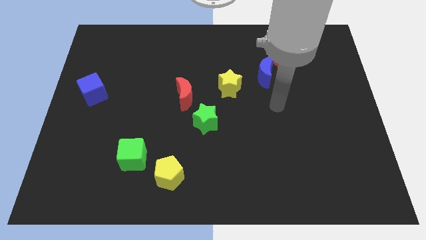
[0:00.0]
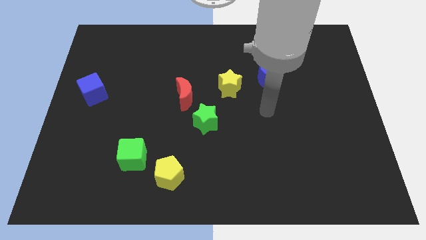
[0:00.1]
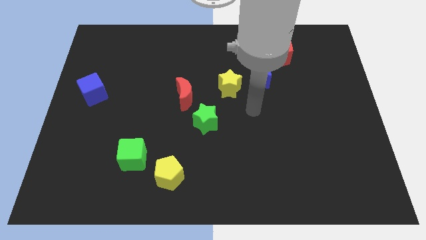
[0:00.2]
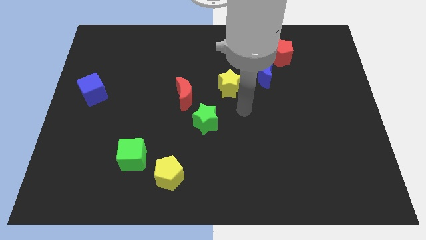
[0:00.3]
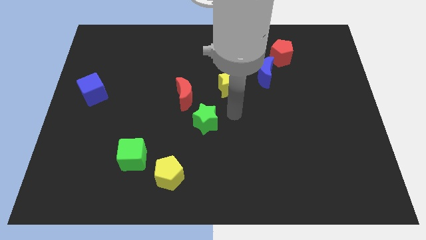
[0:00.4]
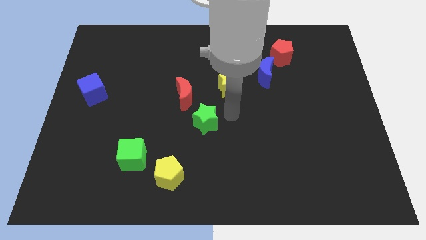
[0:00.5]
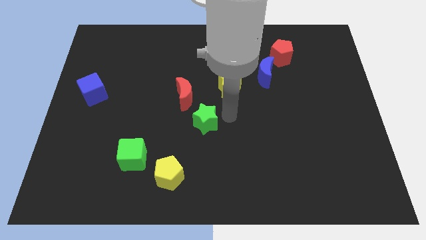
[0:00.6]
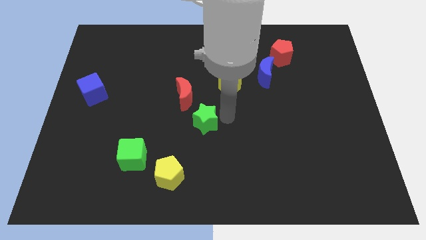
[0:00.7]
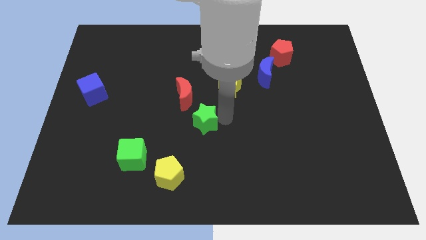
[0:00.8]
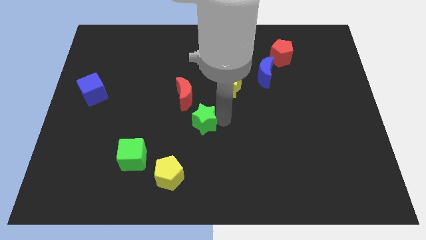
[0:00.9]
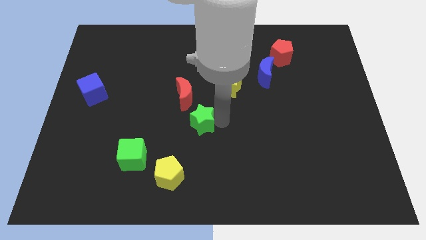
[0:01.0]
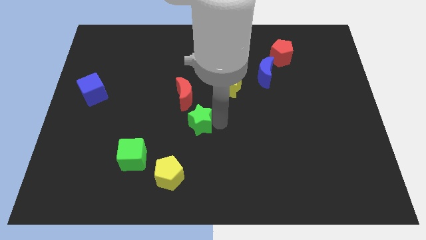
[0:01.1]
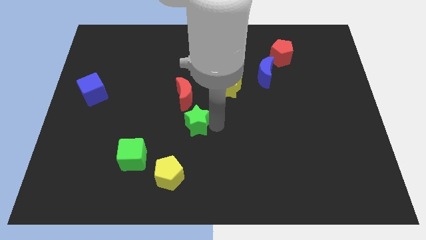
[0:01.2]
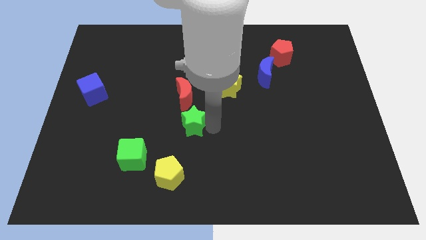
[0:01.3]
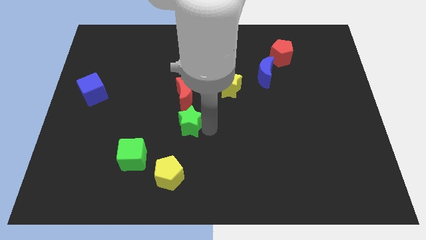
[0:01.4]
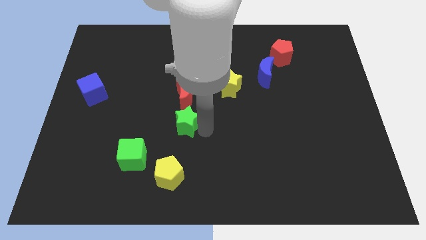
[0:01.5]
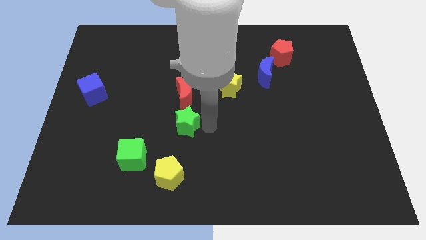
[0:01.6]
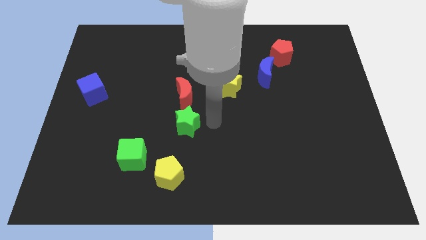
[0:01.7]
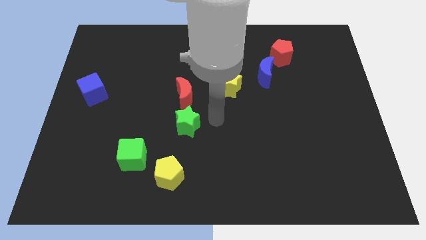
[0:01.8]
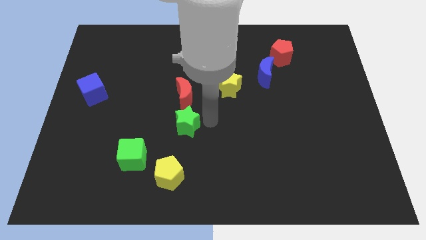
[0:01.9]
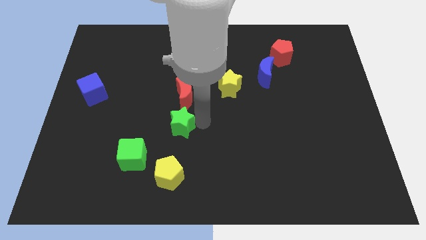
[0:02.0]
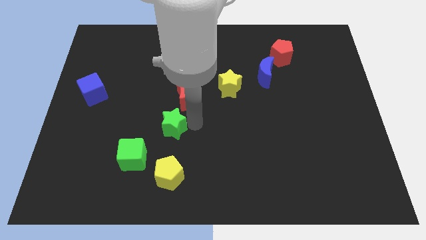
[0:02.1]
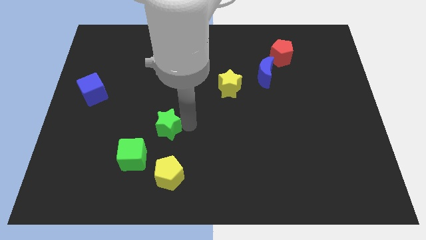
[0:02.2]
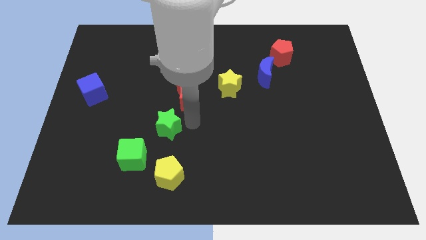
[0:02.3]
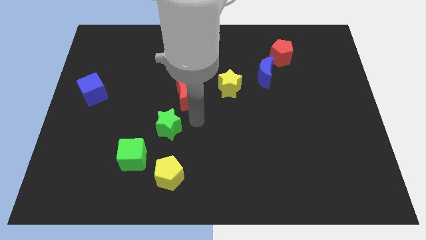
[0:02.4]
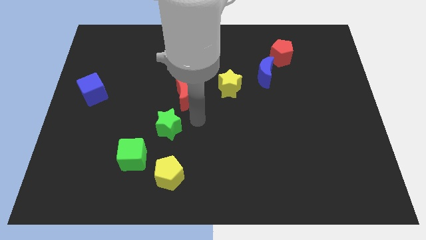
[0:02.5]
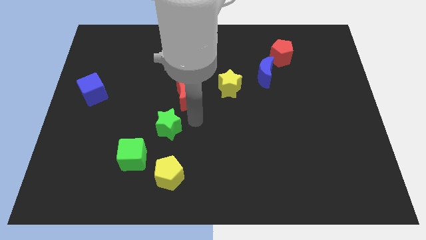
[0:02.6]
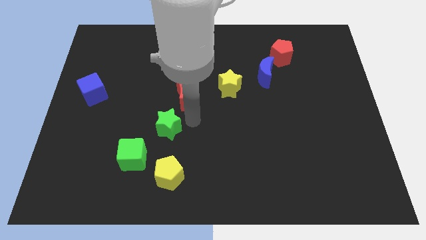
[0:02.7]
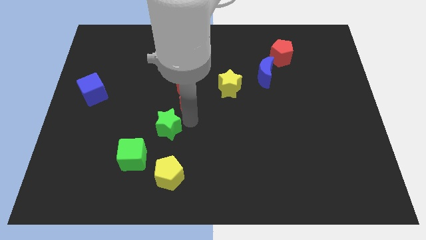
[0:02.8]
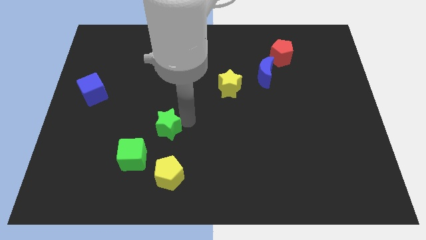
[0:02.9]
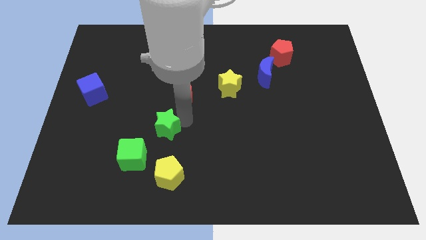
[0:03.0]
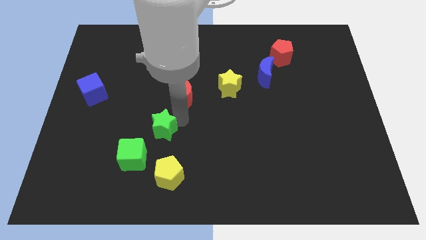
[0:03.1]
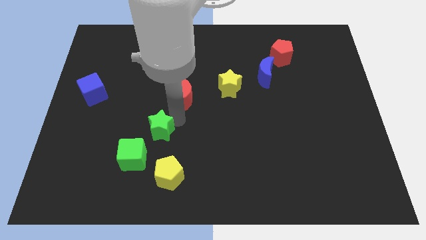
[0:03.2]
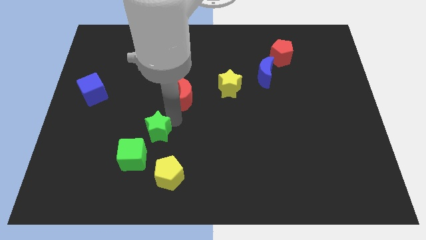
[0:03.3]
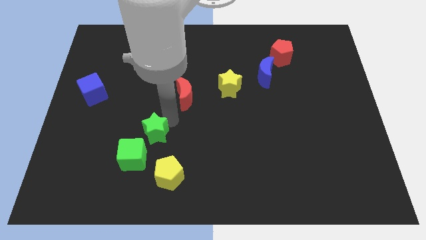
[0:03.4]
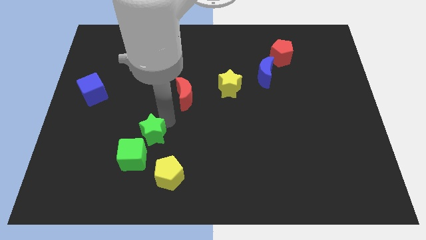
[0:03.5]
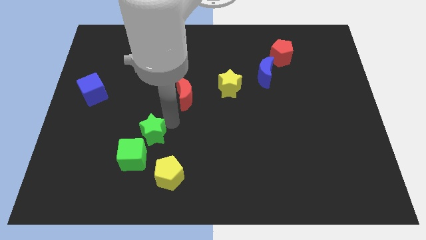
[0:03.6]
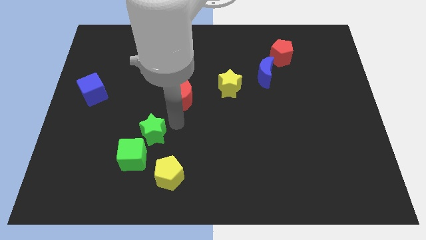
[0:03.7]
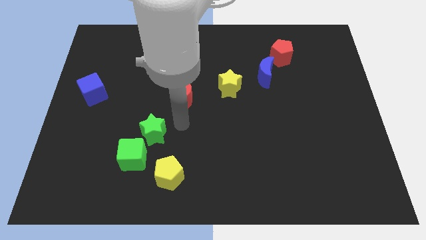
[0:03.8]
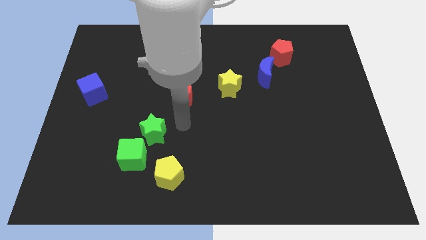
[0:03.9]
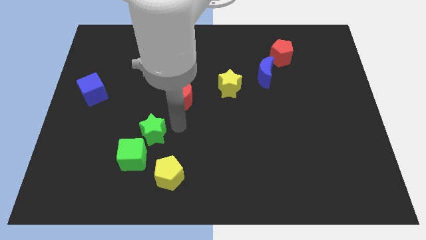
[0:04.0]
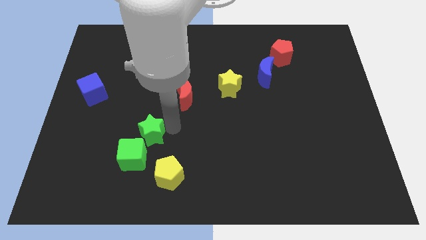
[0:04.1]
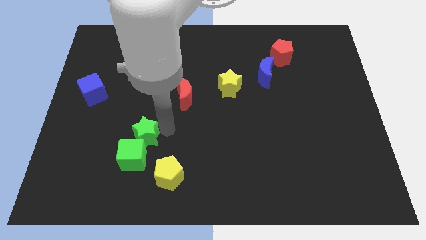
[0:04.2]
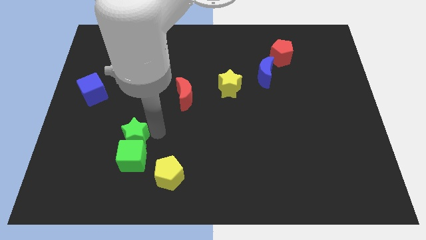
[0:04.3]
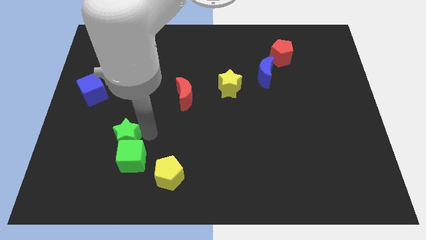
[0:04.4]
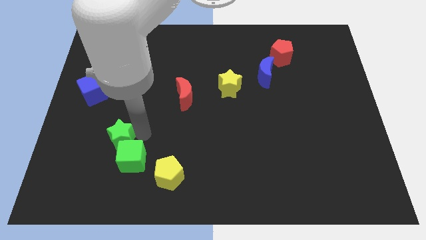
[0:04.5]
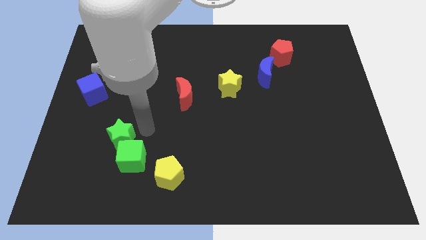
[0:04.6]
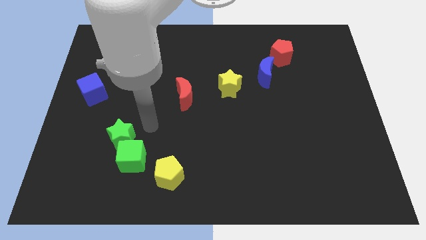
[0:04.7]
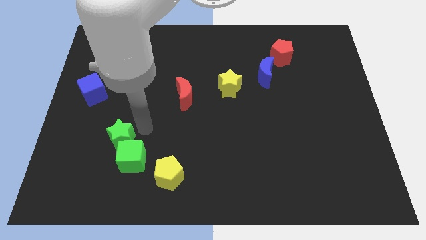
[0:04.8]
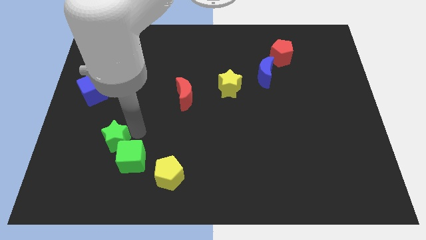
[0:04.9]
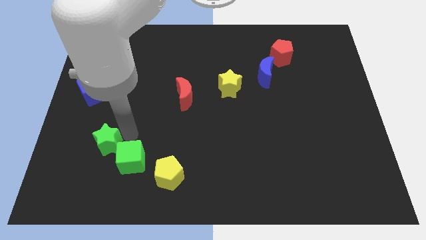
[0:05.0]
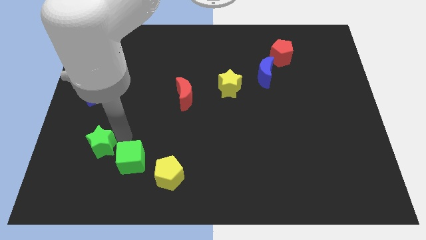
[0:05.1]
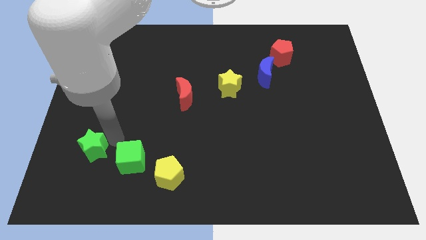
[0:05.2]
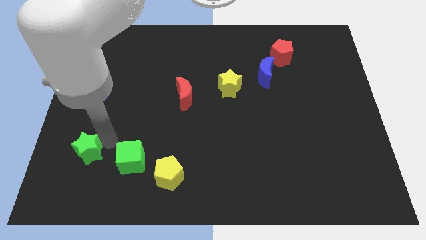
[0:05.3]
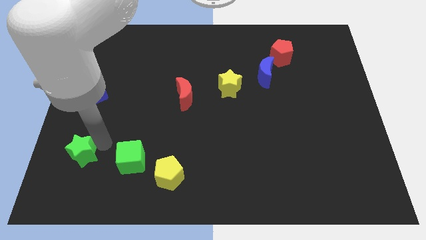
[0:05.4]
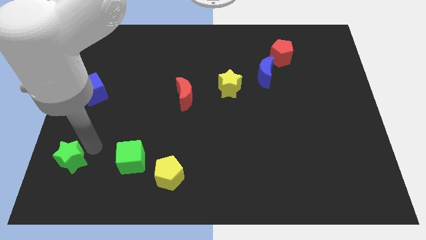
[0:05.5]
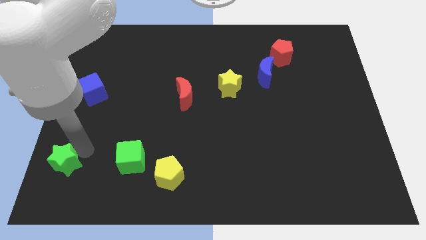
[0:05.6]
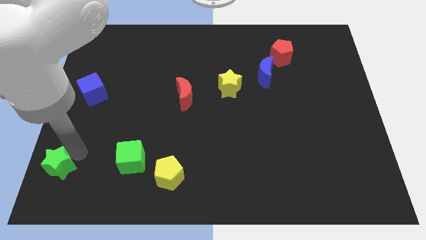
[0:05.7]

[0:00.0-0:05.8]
put the green star to the bottom left of the board
